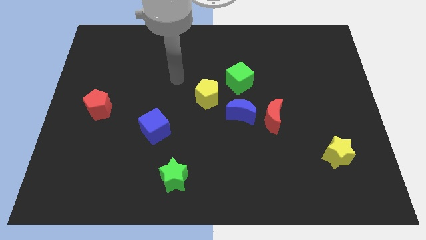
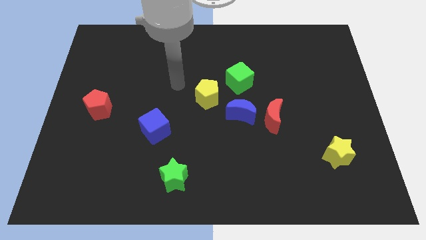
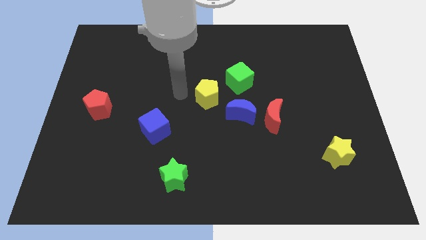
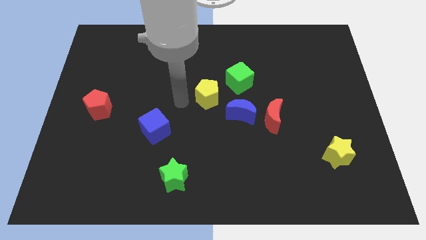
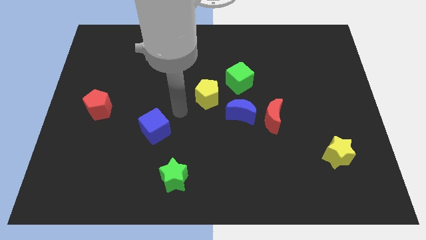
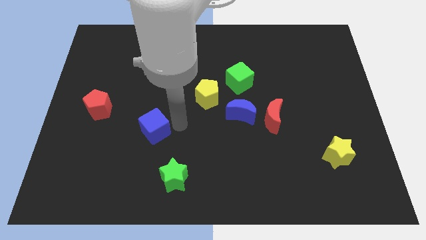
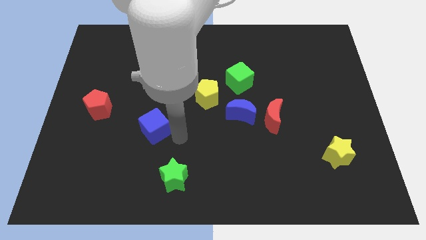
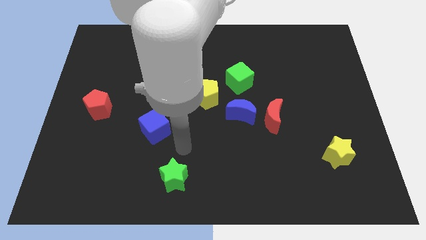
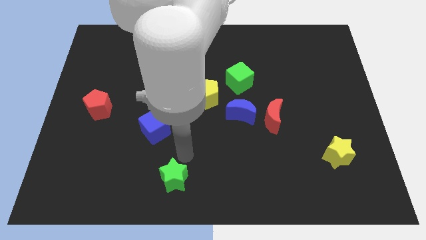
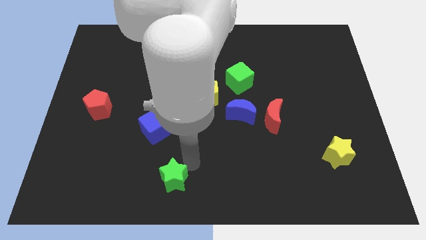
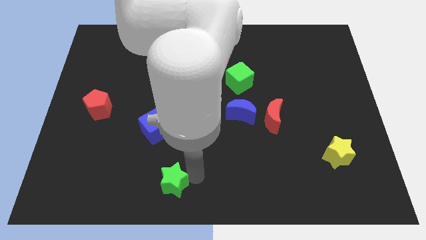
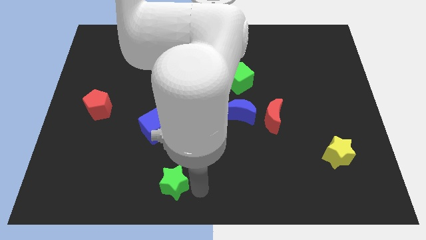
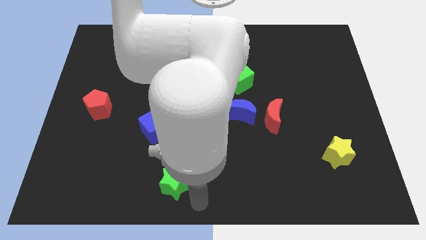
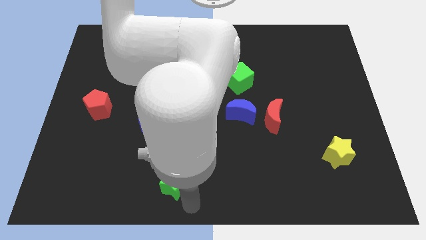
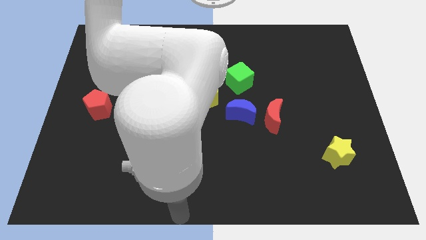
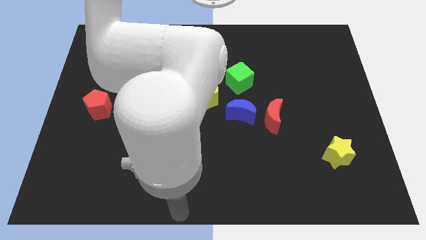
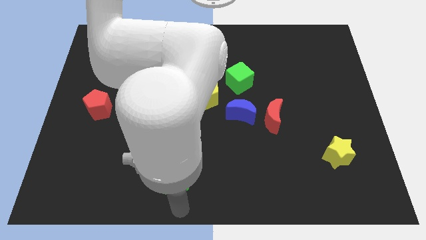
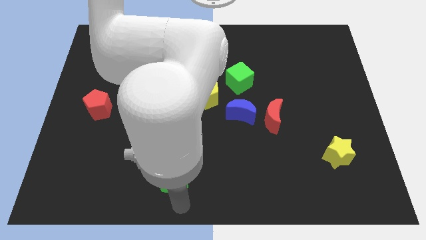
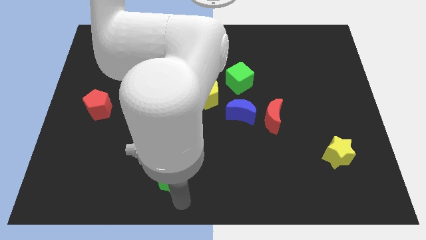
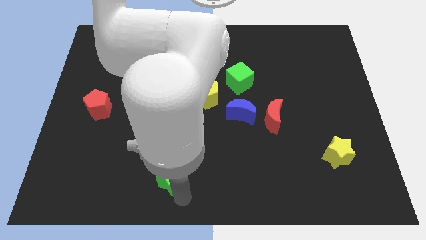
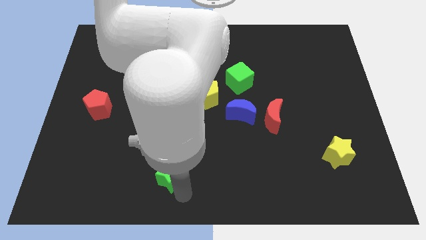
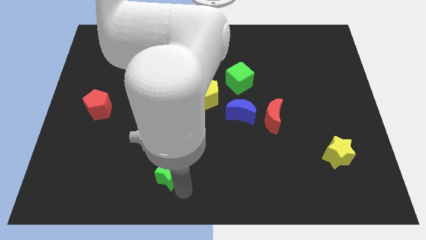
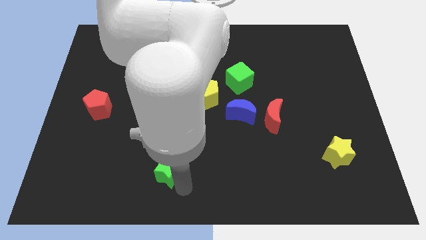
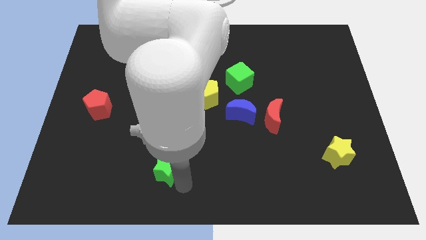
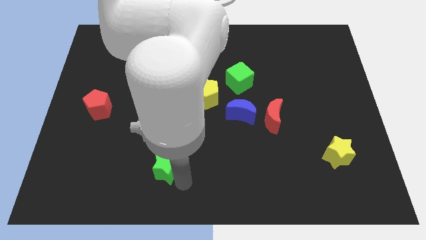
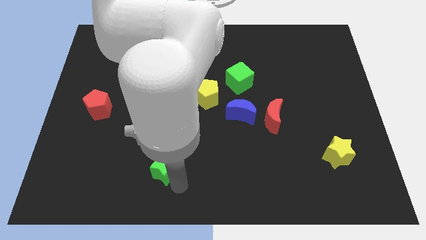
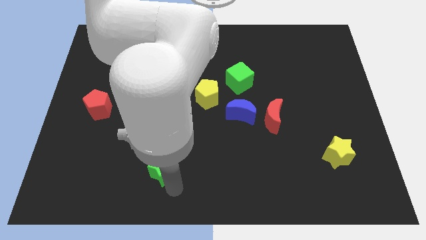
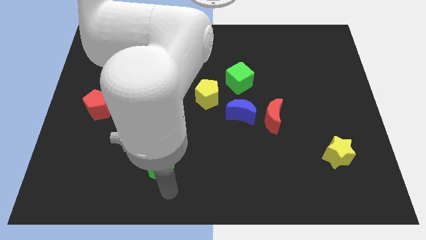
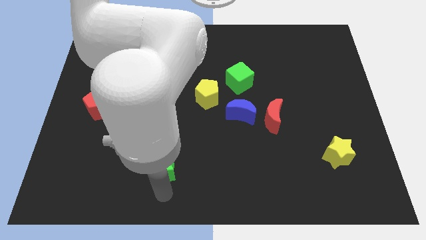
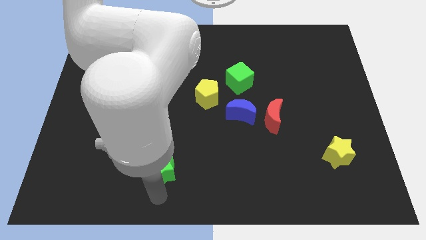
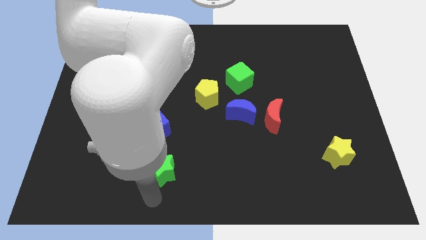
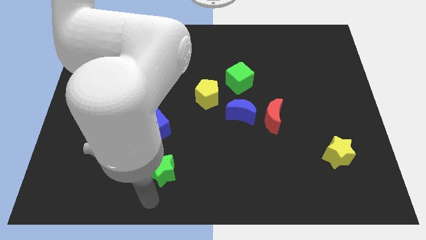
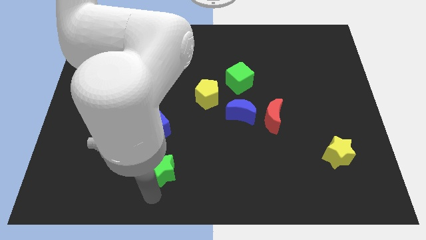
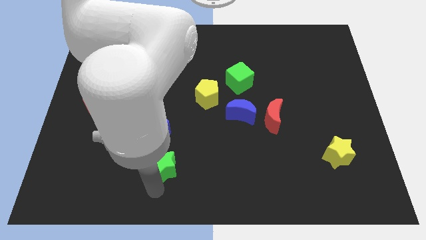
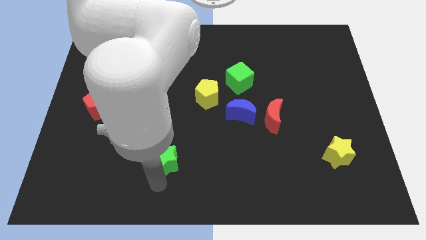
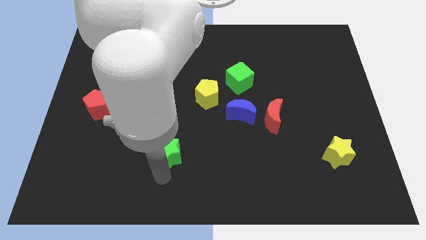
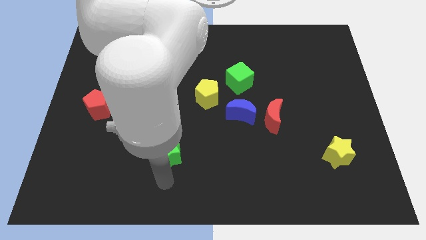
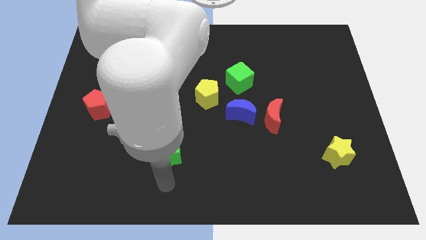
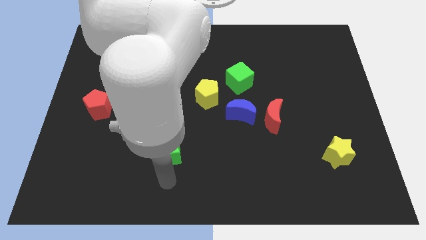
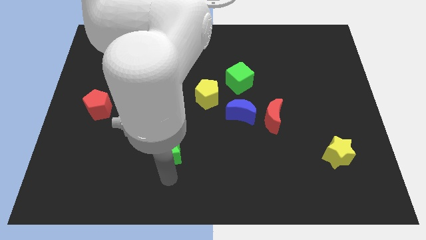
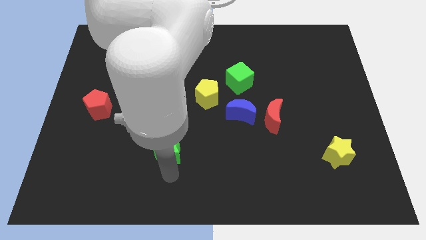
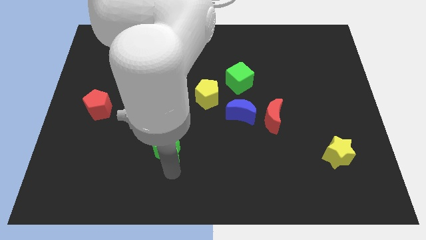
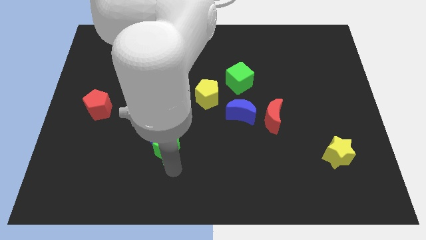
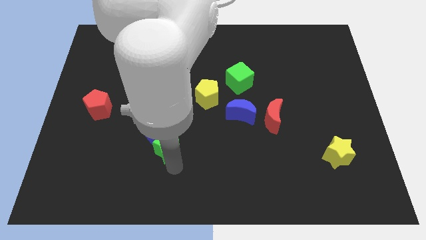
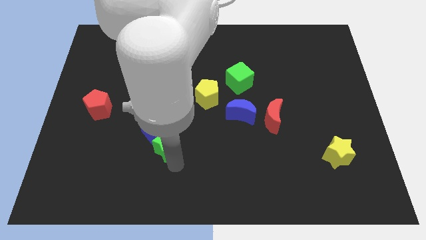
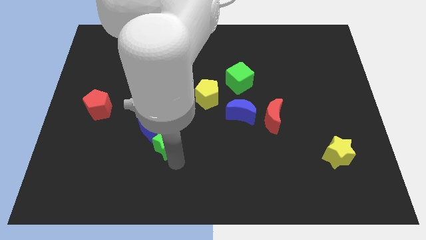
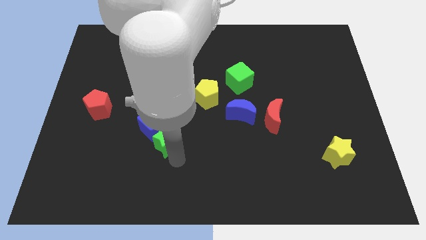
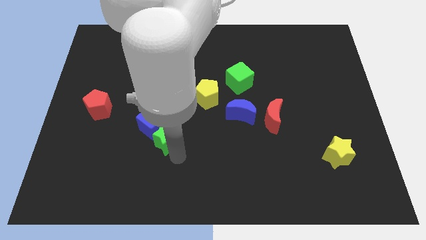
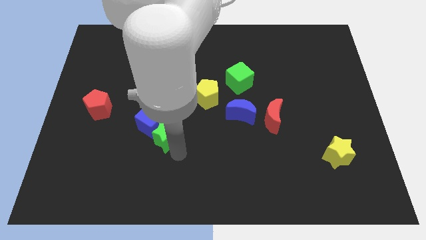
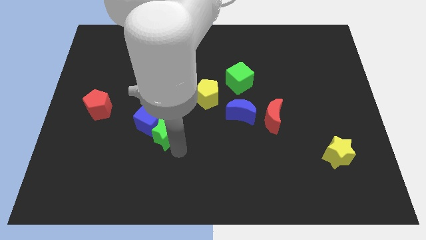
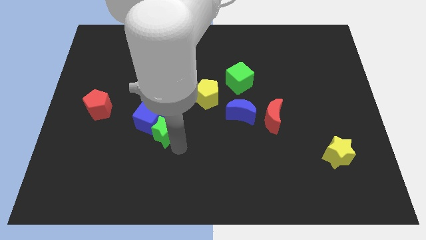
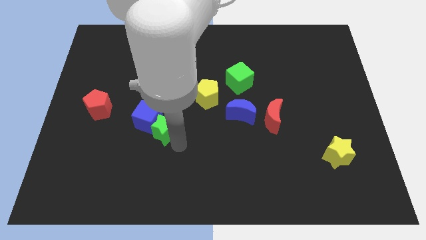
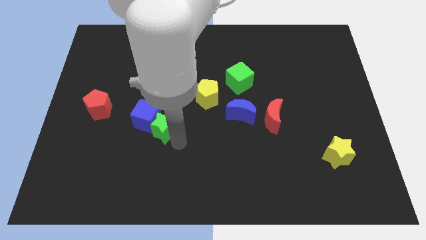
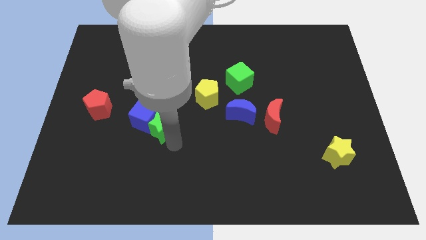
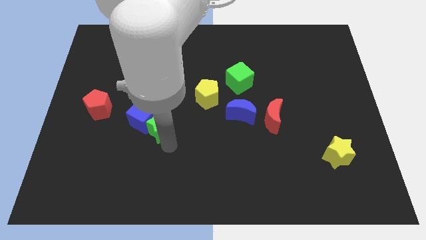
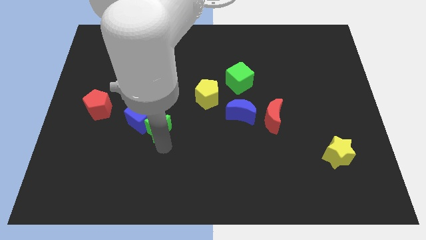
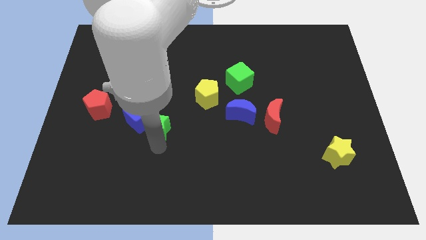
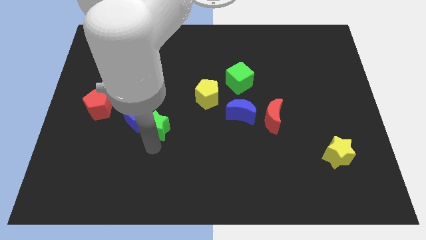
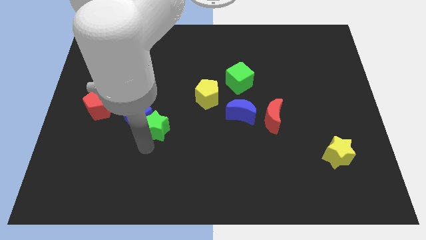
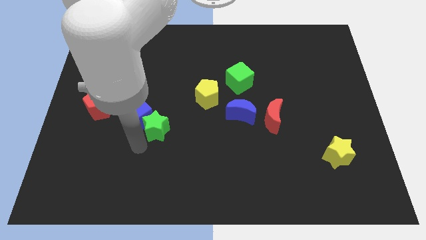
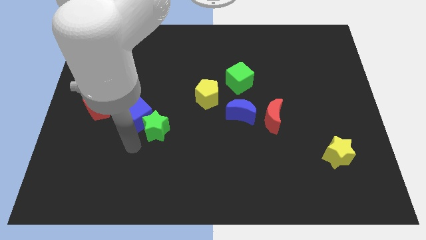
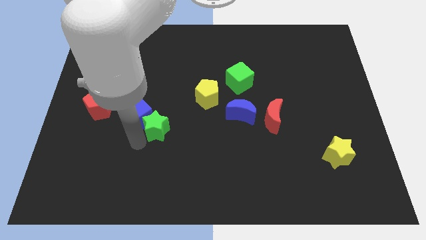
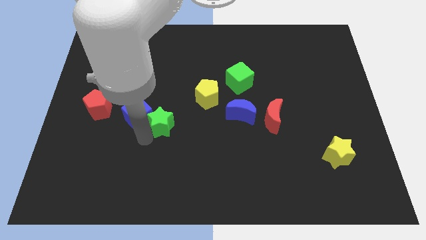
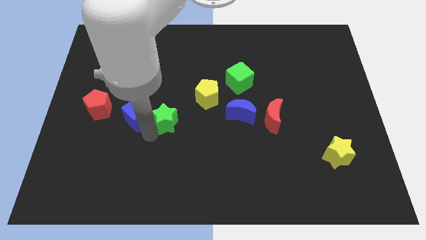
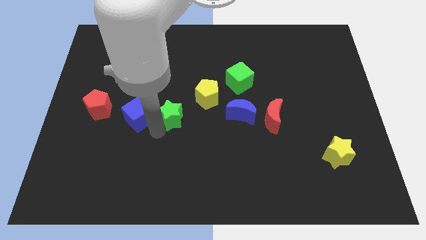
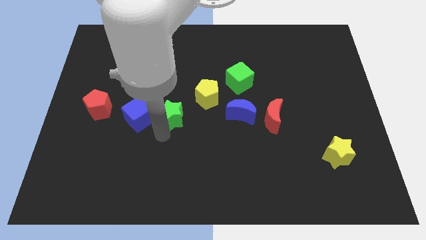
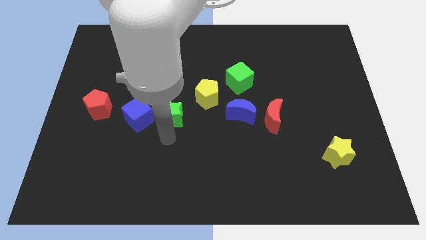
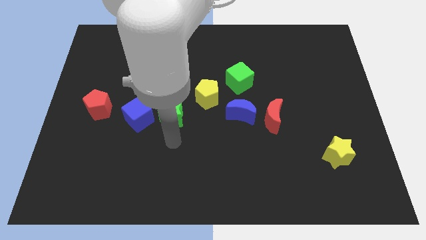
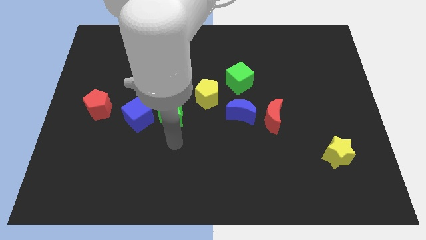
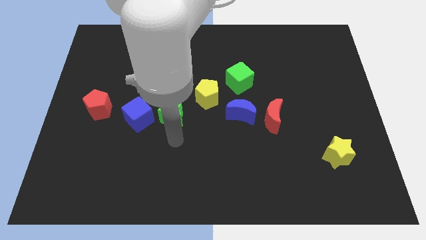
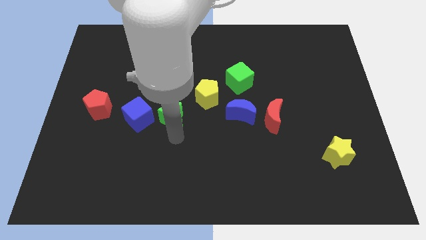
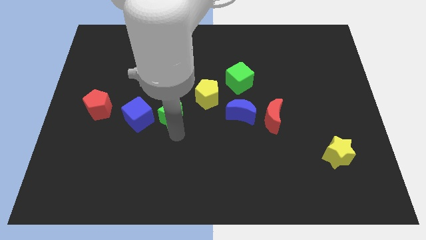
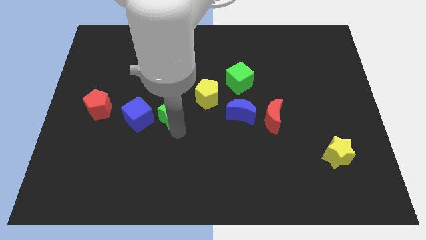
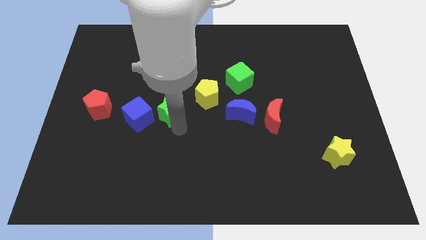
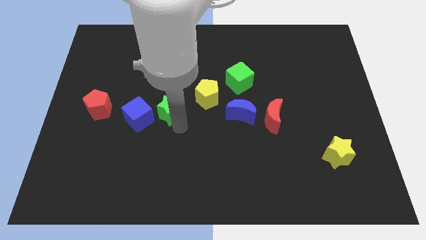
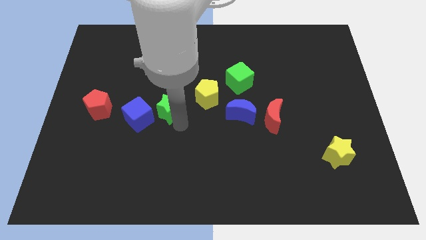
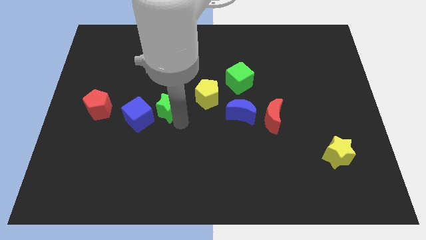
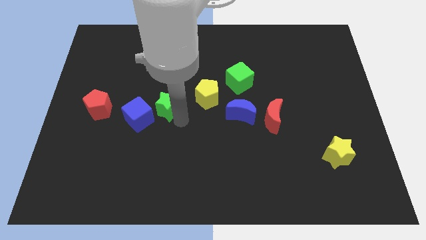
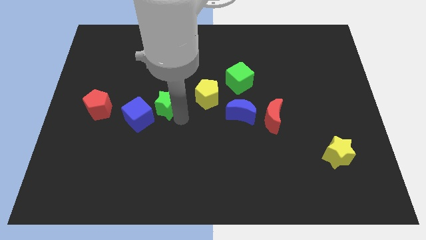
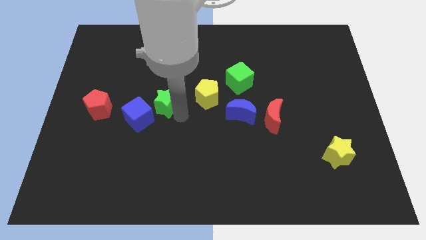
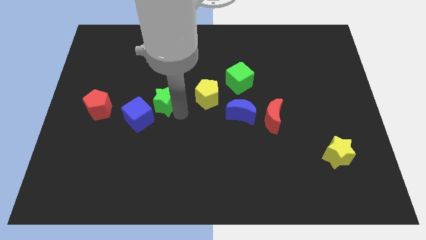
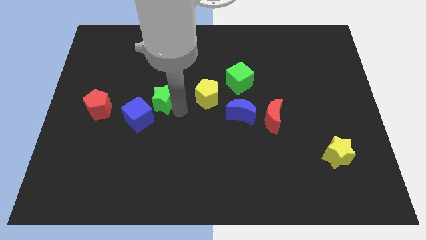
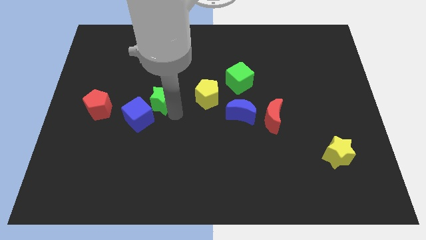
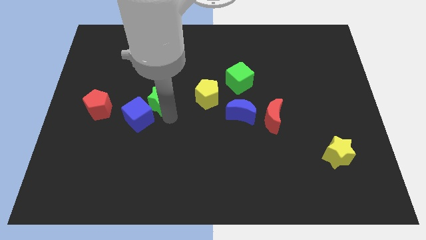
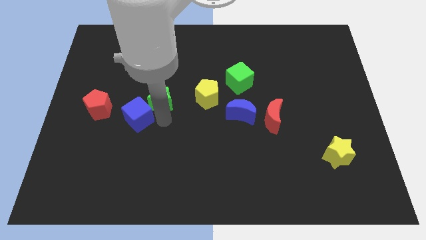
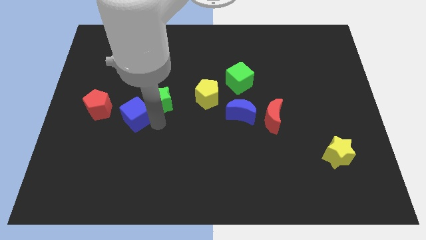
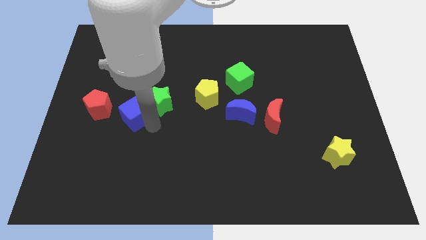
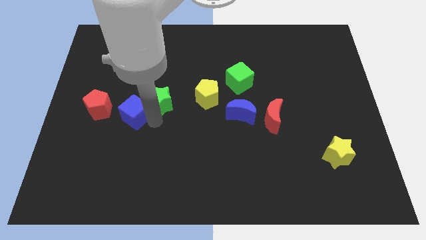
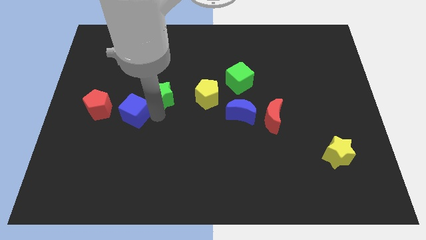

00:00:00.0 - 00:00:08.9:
push the green star up
